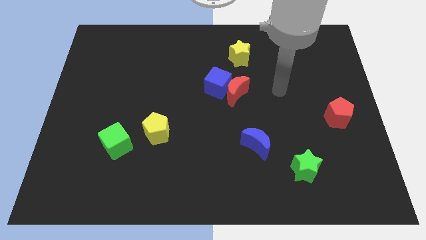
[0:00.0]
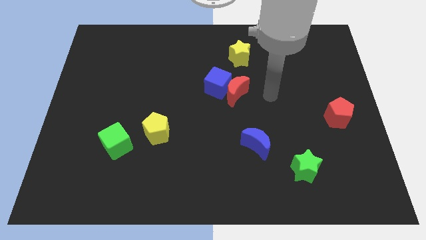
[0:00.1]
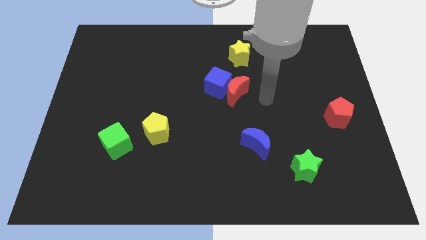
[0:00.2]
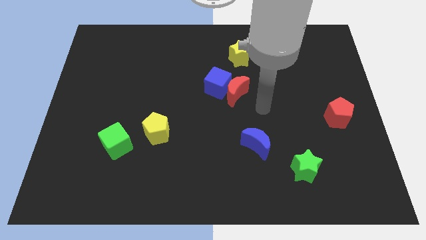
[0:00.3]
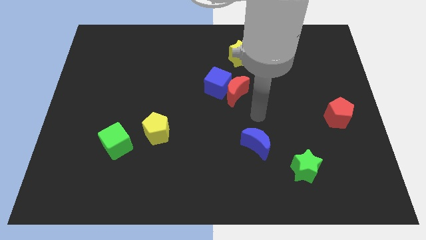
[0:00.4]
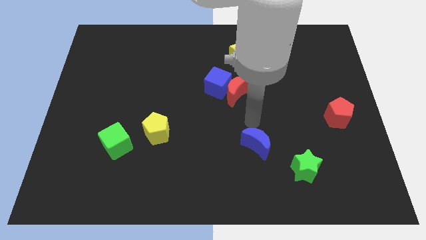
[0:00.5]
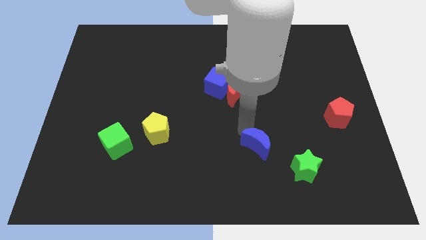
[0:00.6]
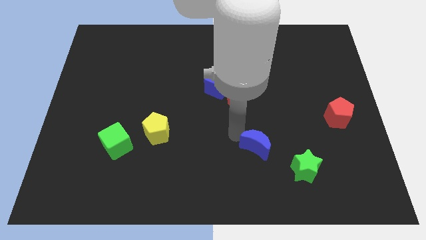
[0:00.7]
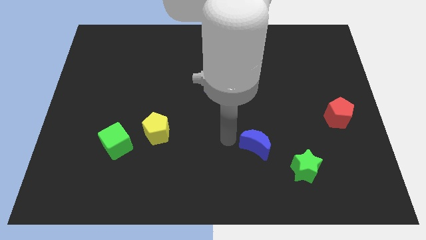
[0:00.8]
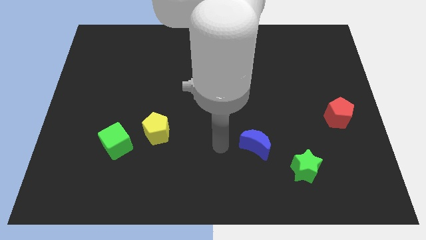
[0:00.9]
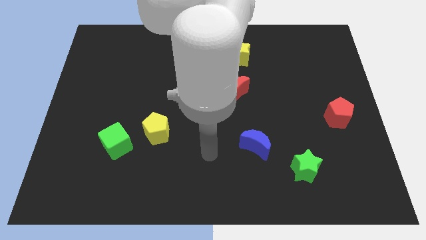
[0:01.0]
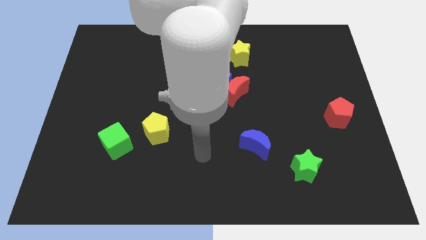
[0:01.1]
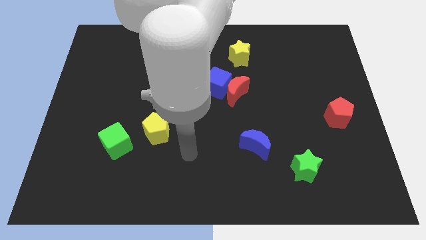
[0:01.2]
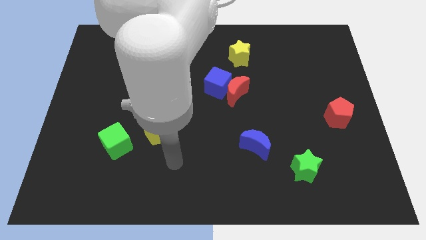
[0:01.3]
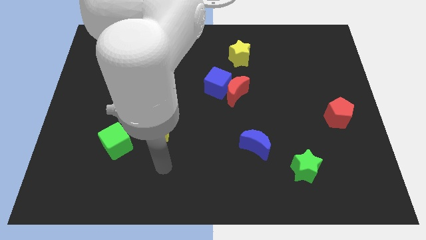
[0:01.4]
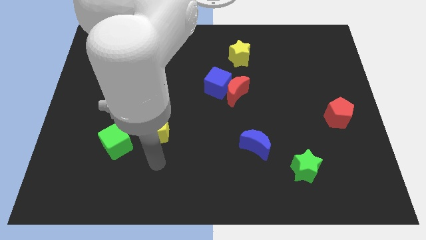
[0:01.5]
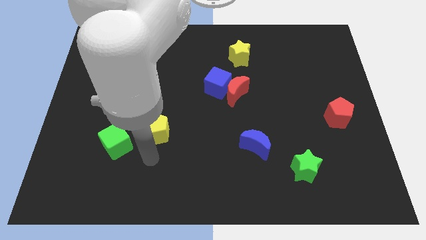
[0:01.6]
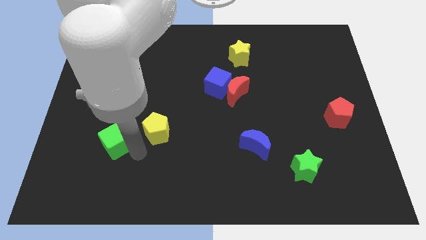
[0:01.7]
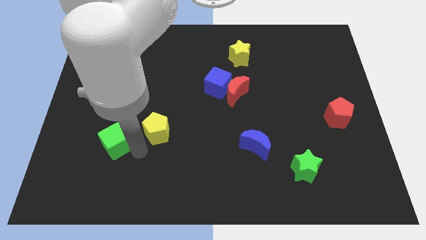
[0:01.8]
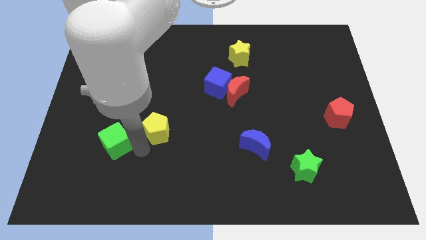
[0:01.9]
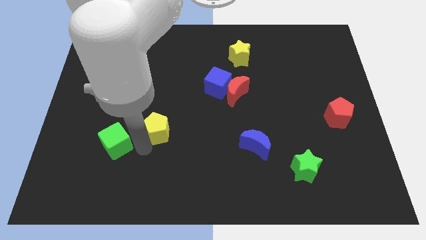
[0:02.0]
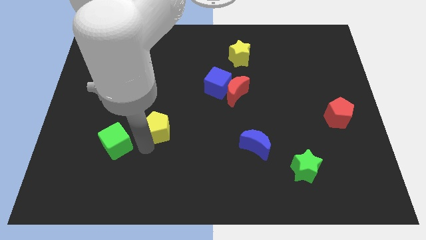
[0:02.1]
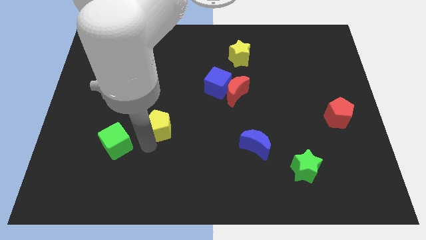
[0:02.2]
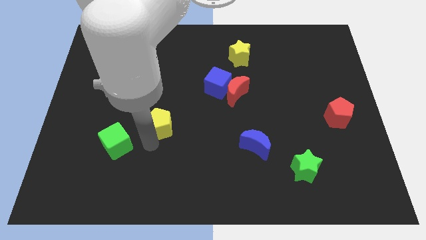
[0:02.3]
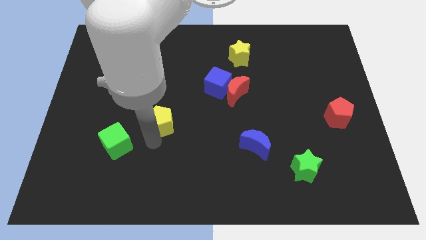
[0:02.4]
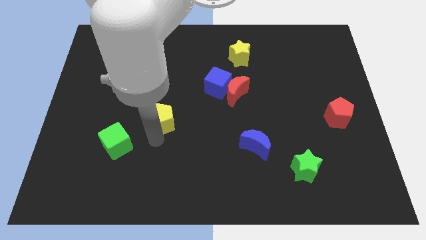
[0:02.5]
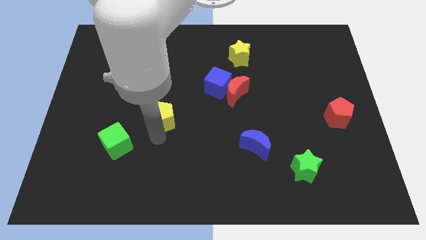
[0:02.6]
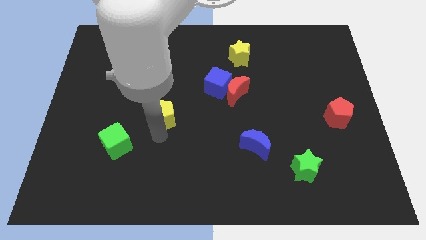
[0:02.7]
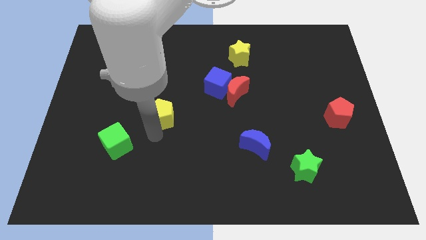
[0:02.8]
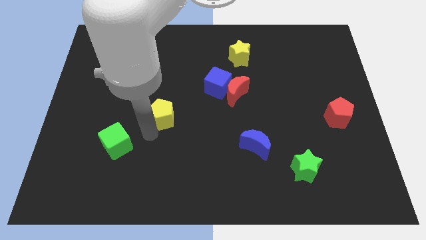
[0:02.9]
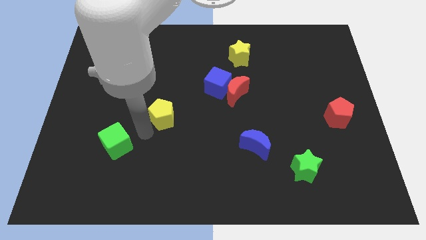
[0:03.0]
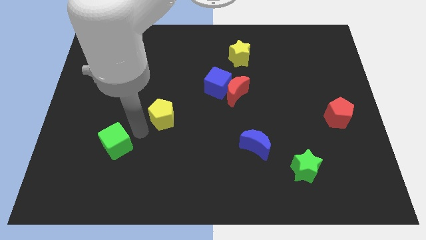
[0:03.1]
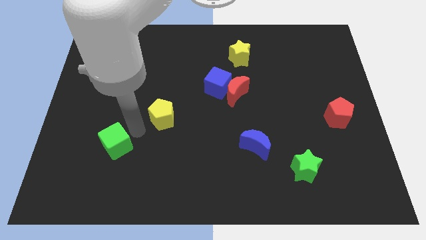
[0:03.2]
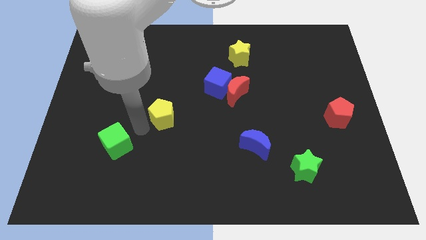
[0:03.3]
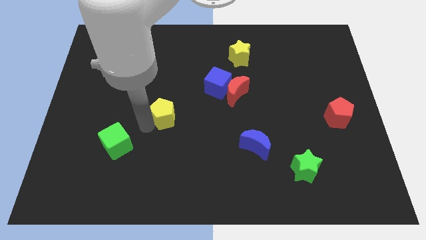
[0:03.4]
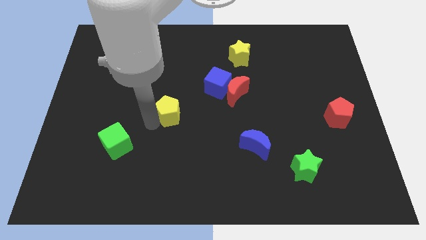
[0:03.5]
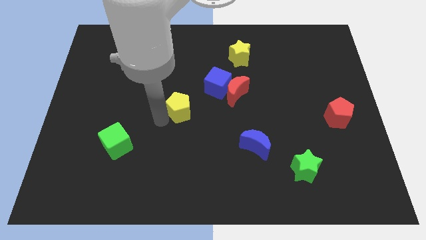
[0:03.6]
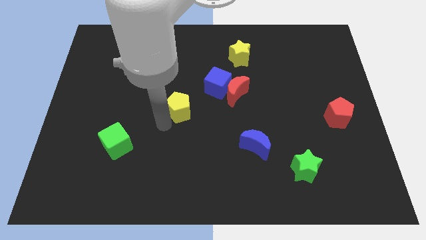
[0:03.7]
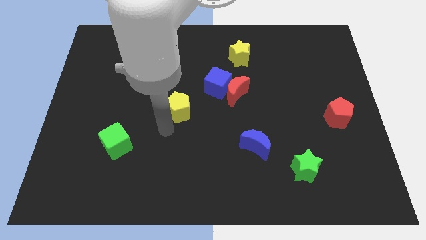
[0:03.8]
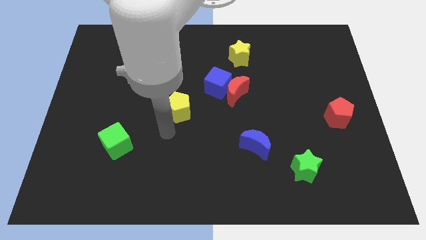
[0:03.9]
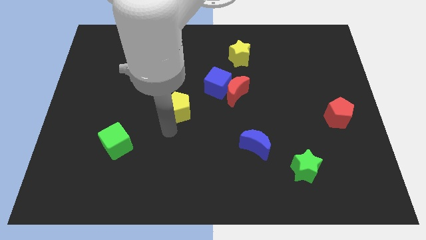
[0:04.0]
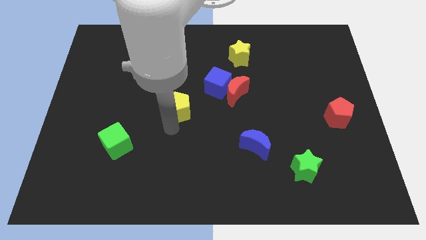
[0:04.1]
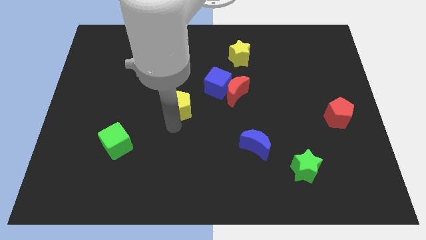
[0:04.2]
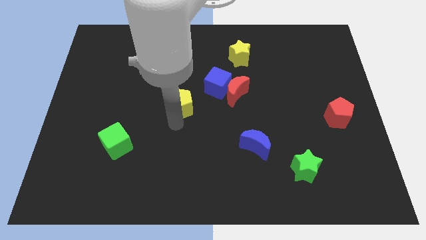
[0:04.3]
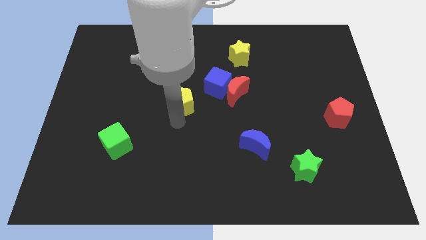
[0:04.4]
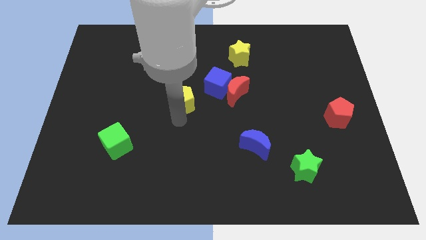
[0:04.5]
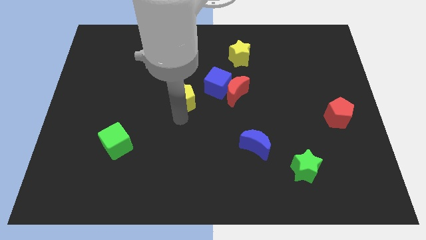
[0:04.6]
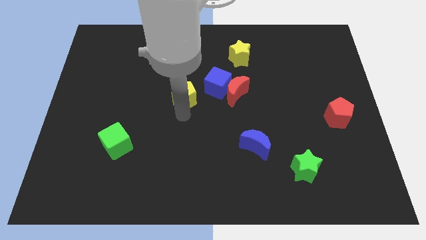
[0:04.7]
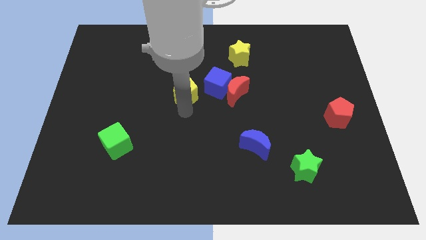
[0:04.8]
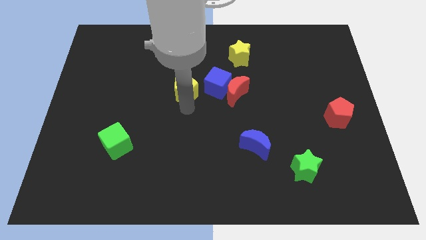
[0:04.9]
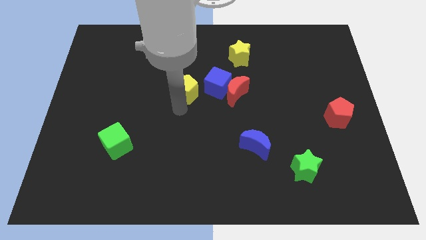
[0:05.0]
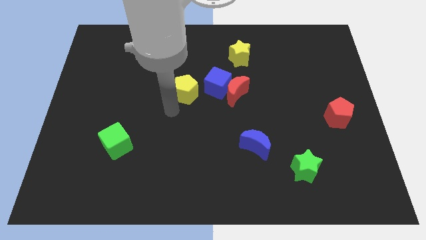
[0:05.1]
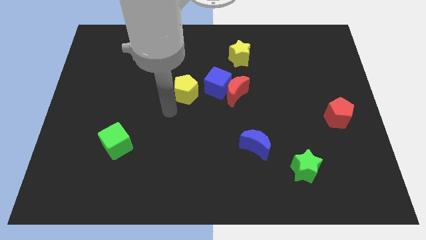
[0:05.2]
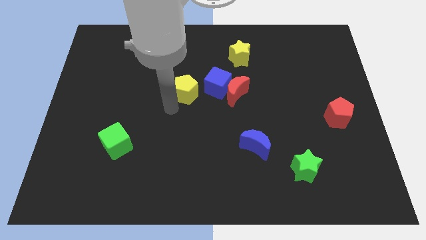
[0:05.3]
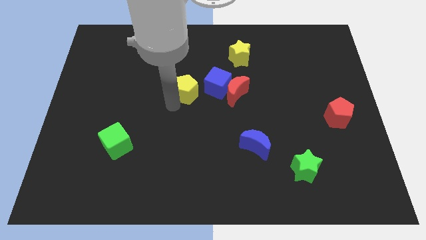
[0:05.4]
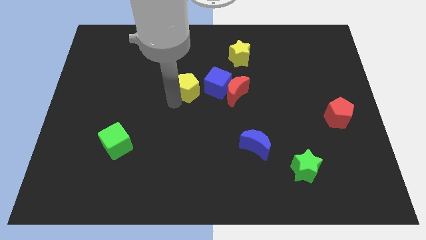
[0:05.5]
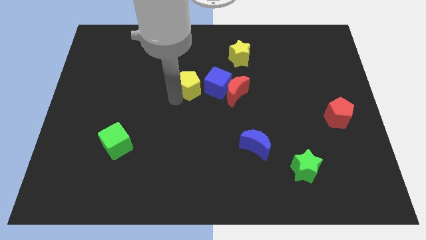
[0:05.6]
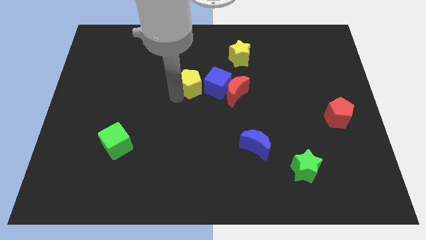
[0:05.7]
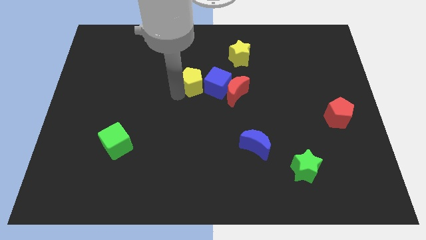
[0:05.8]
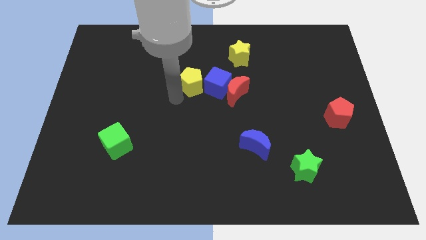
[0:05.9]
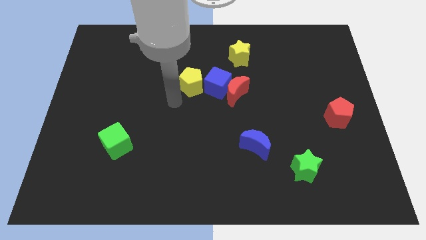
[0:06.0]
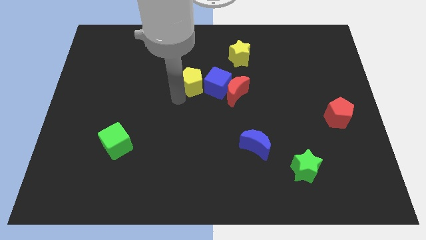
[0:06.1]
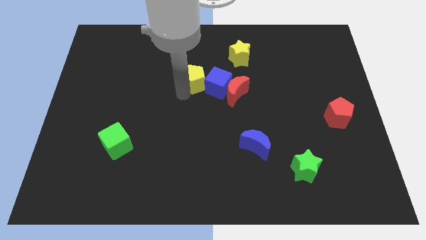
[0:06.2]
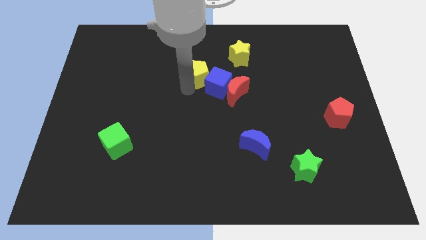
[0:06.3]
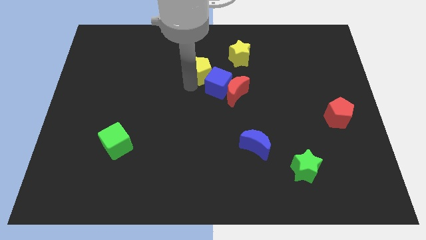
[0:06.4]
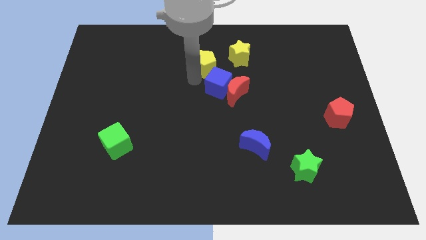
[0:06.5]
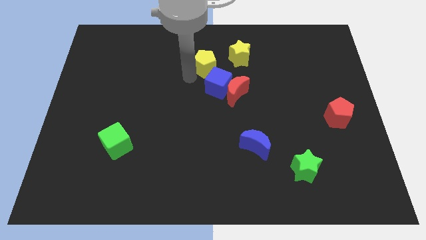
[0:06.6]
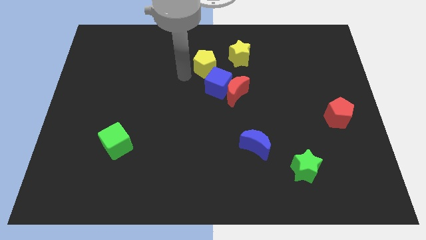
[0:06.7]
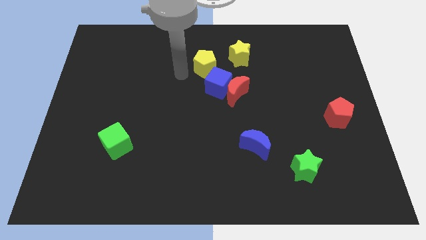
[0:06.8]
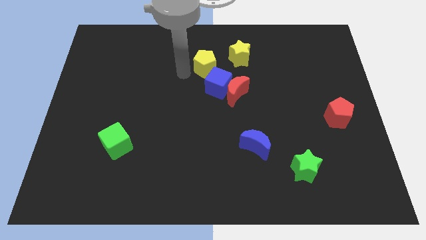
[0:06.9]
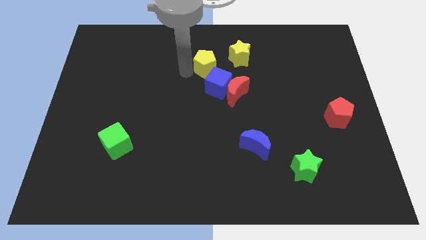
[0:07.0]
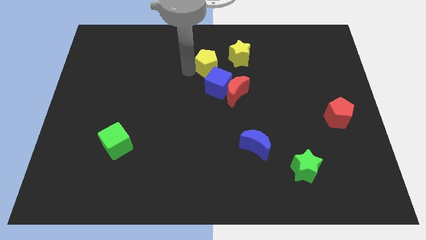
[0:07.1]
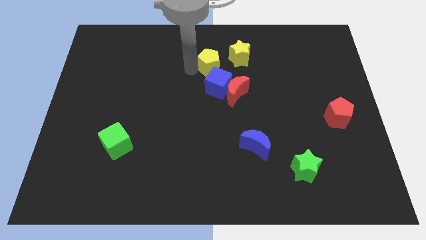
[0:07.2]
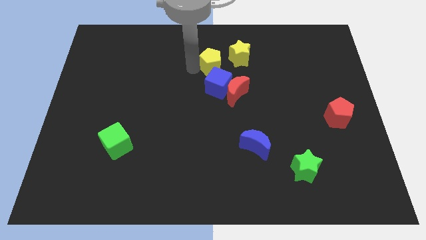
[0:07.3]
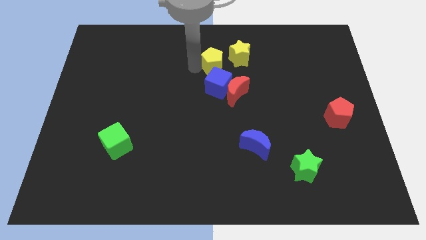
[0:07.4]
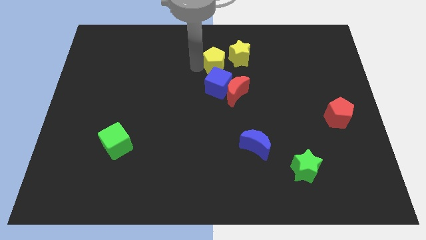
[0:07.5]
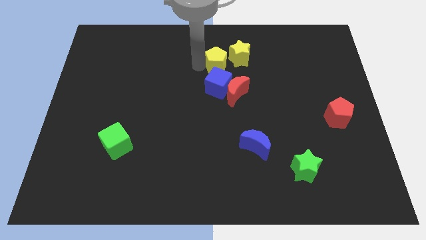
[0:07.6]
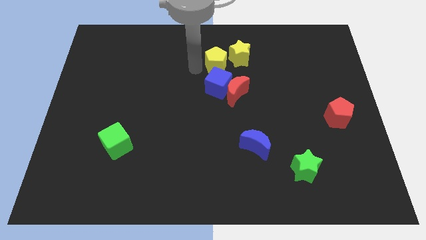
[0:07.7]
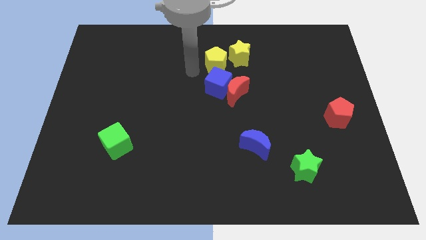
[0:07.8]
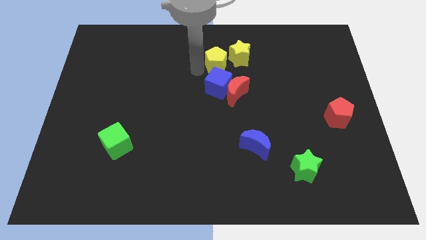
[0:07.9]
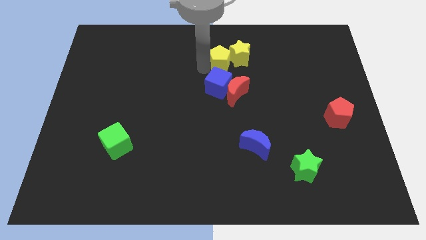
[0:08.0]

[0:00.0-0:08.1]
push the yellow pentagon to the yellow star
